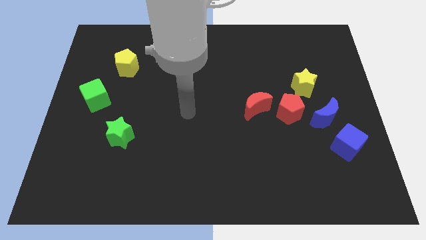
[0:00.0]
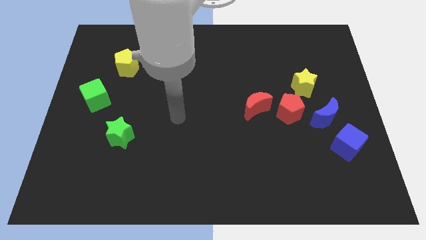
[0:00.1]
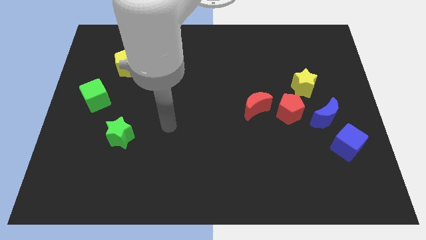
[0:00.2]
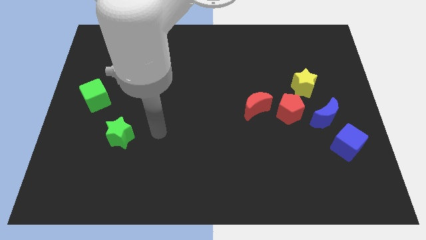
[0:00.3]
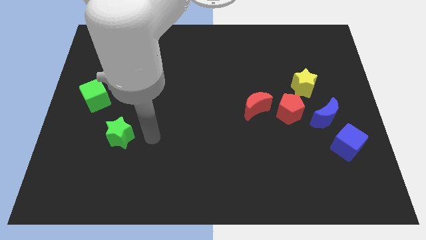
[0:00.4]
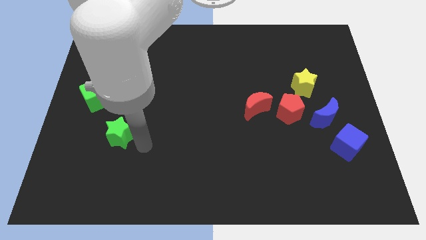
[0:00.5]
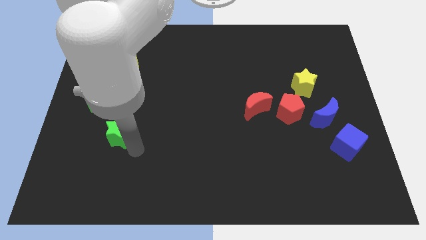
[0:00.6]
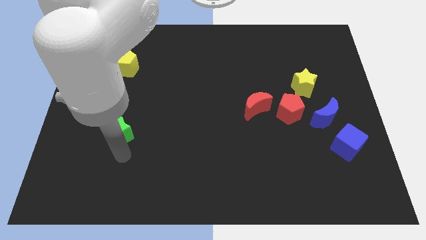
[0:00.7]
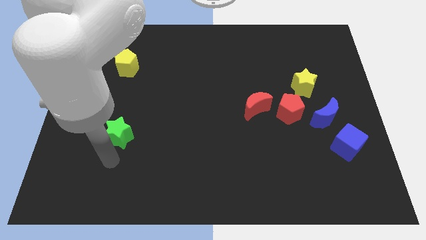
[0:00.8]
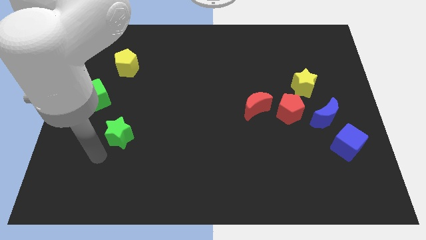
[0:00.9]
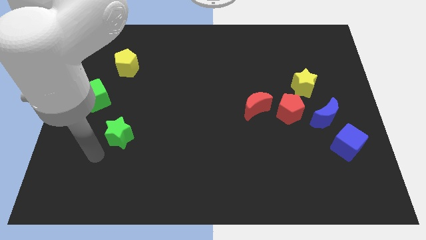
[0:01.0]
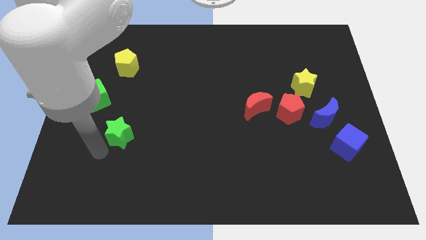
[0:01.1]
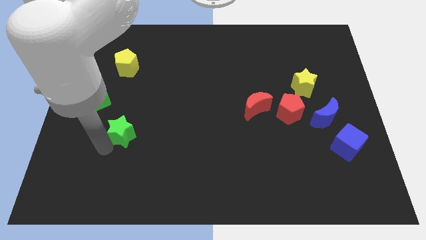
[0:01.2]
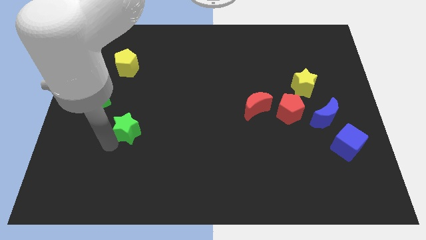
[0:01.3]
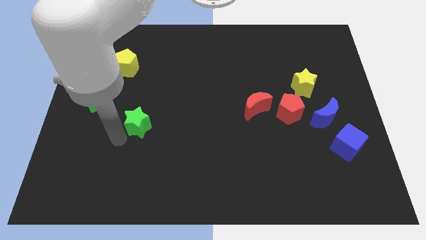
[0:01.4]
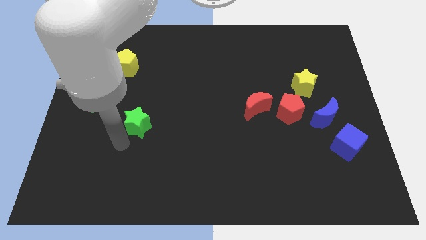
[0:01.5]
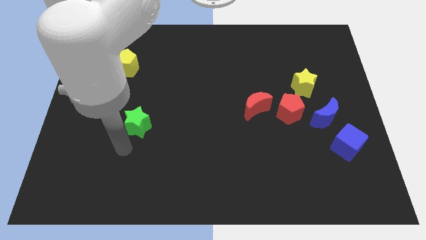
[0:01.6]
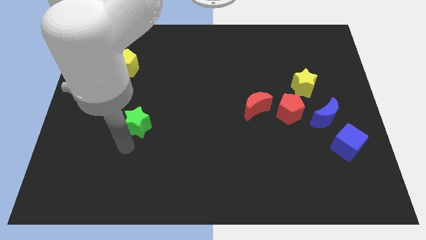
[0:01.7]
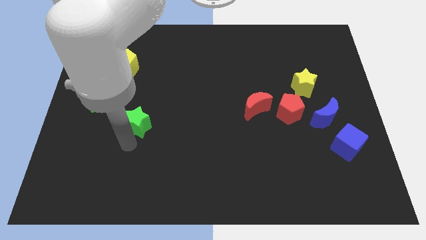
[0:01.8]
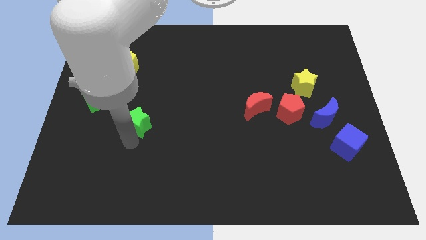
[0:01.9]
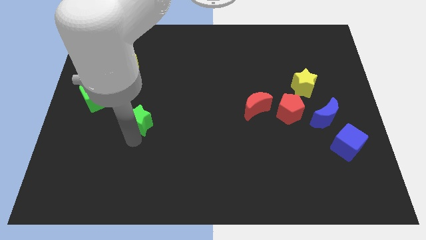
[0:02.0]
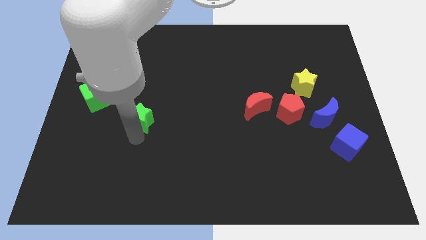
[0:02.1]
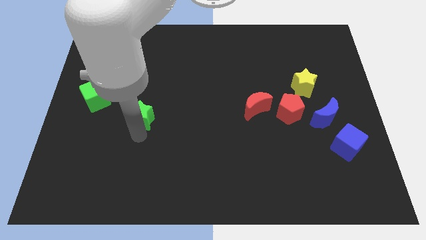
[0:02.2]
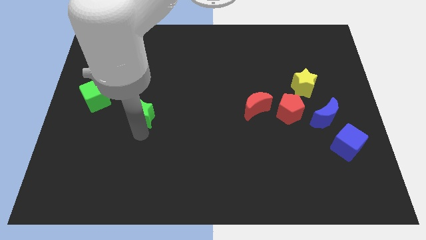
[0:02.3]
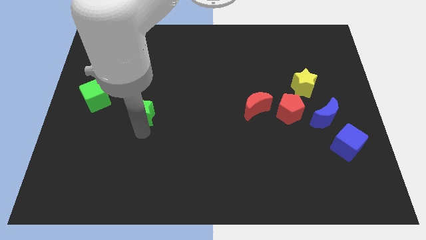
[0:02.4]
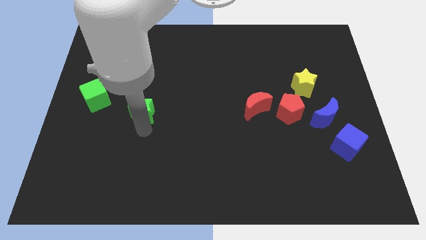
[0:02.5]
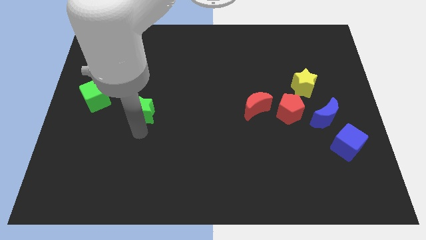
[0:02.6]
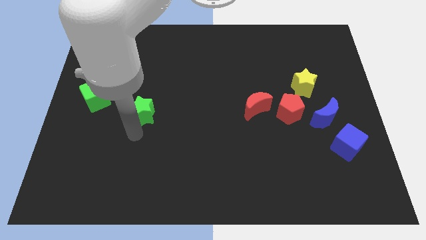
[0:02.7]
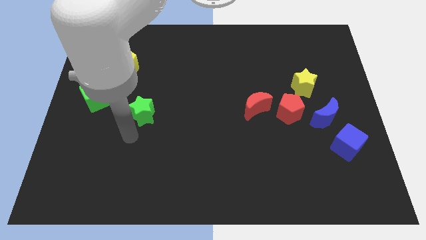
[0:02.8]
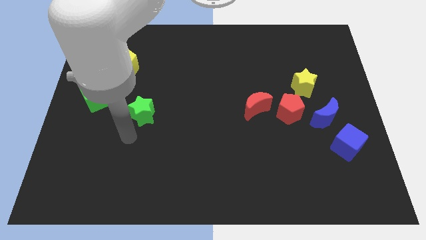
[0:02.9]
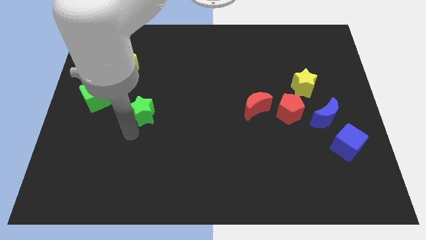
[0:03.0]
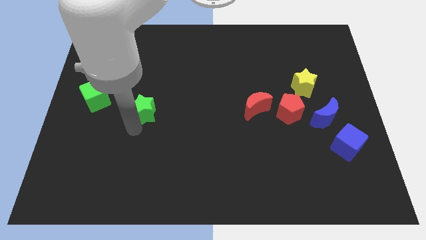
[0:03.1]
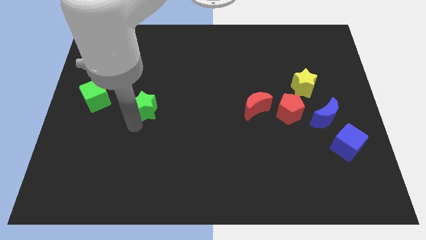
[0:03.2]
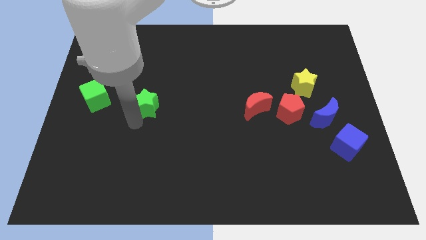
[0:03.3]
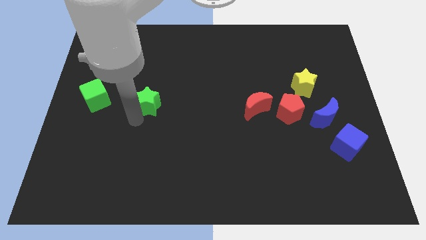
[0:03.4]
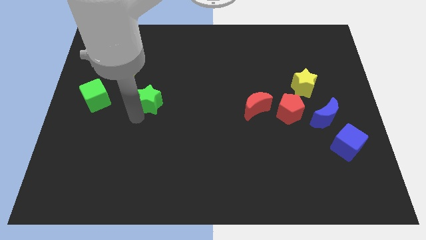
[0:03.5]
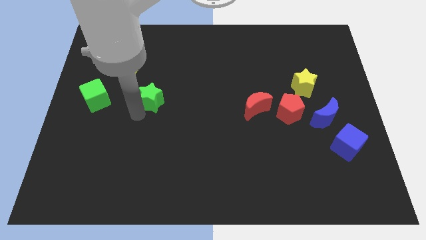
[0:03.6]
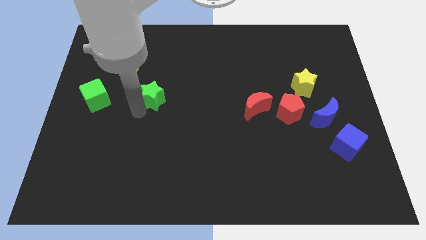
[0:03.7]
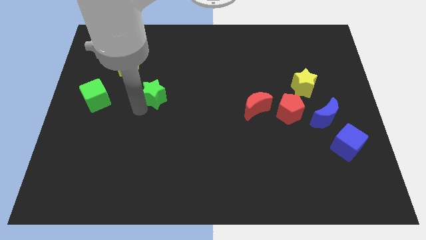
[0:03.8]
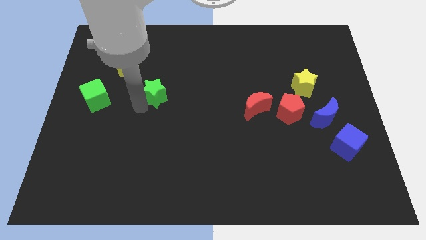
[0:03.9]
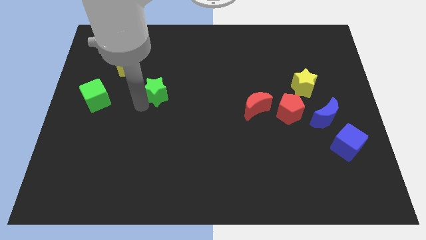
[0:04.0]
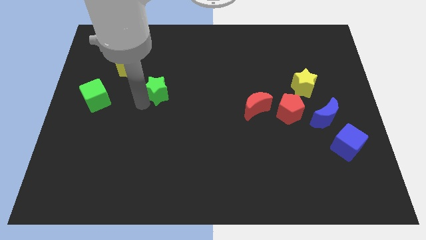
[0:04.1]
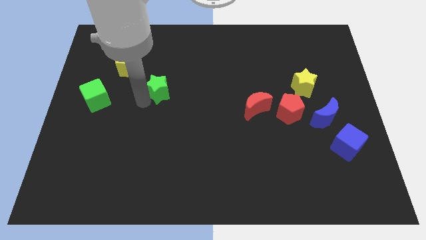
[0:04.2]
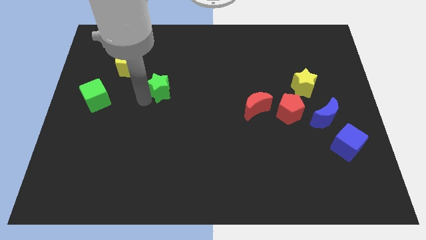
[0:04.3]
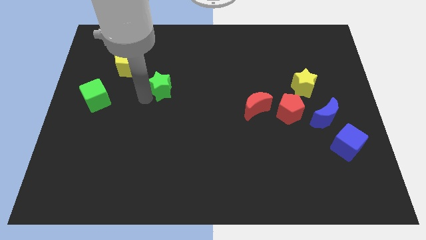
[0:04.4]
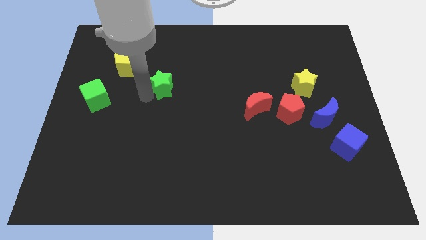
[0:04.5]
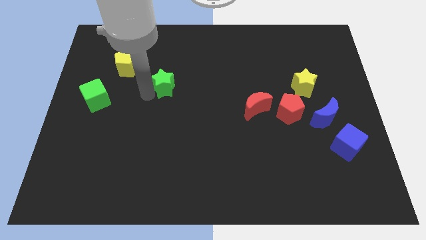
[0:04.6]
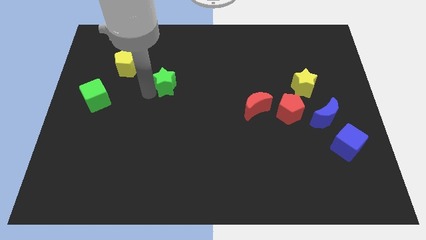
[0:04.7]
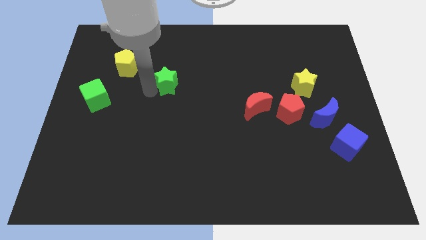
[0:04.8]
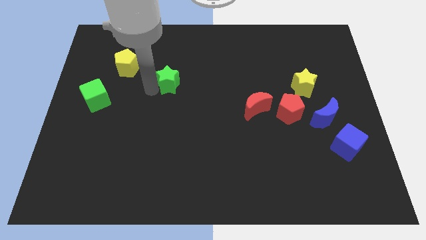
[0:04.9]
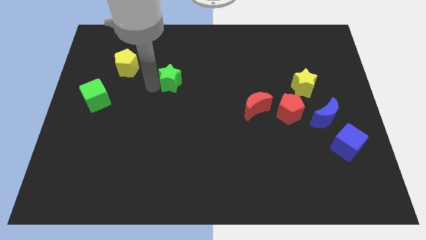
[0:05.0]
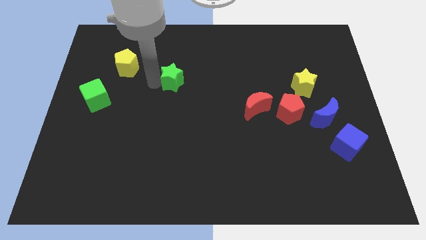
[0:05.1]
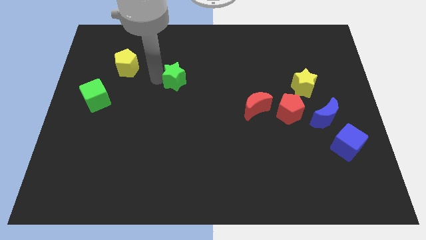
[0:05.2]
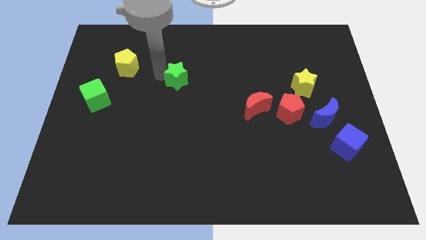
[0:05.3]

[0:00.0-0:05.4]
move the green star up and right

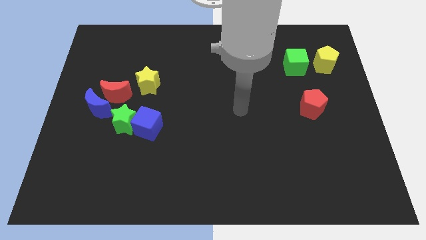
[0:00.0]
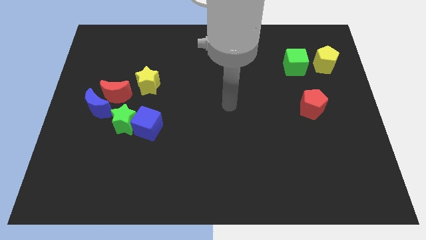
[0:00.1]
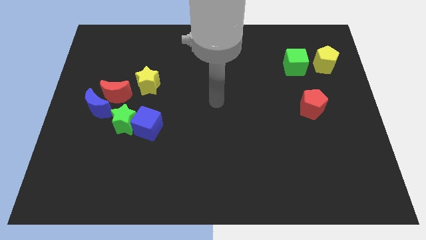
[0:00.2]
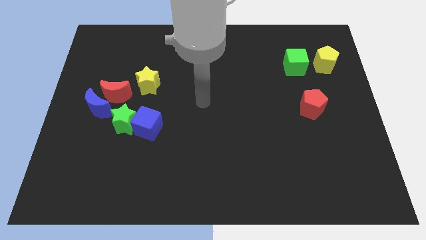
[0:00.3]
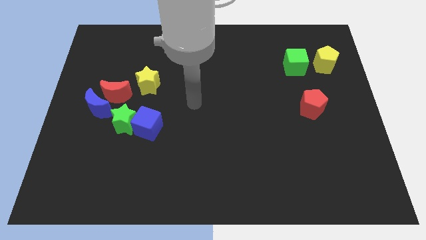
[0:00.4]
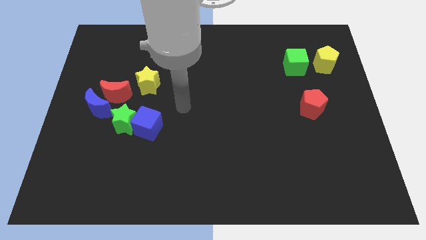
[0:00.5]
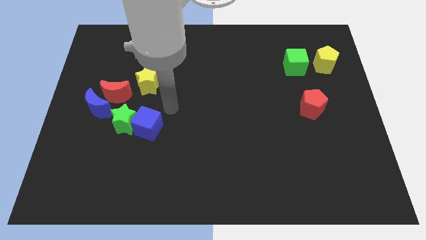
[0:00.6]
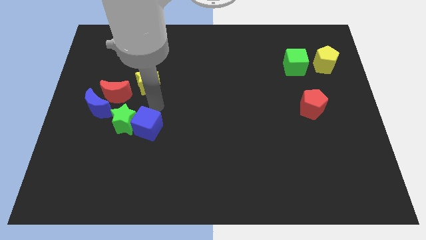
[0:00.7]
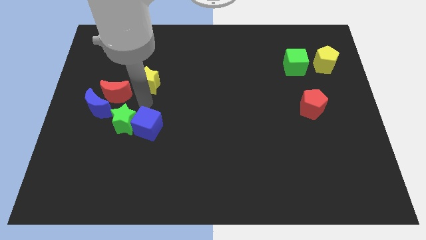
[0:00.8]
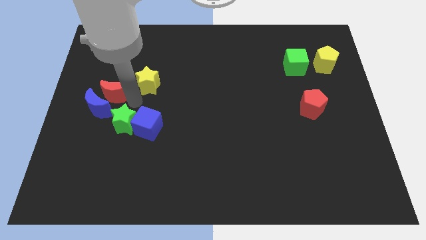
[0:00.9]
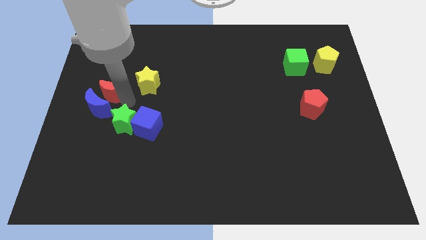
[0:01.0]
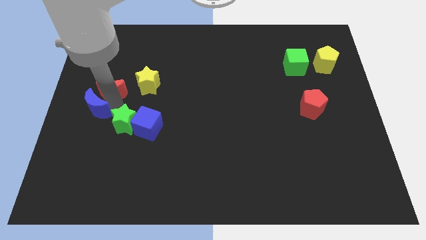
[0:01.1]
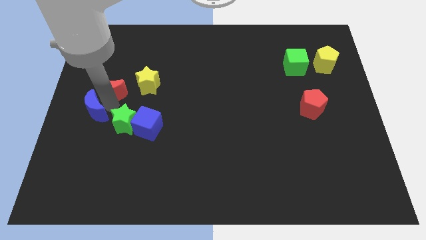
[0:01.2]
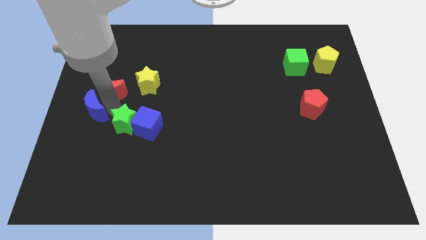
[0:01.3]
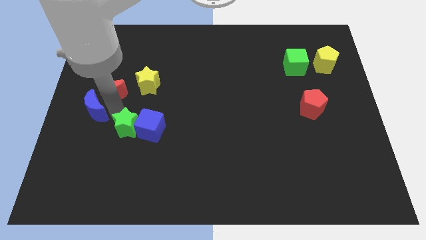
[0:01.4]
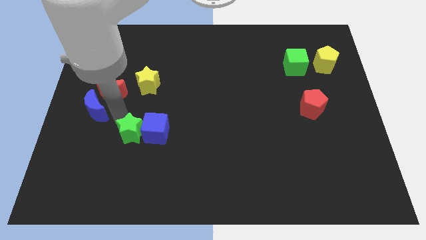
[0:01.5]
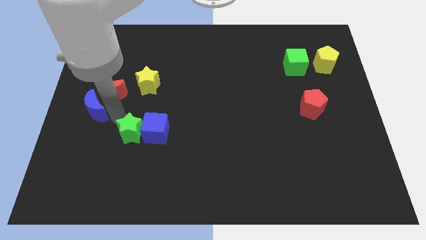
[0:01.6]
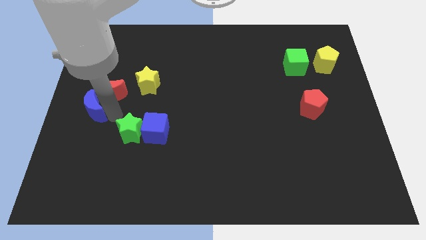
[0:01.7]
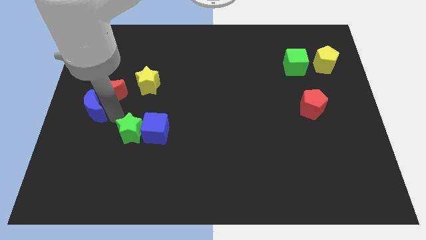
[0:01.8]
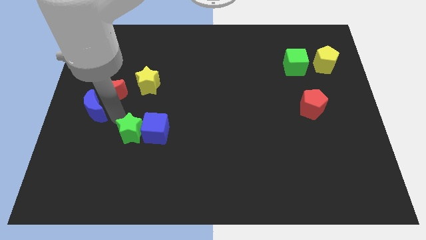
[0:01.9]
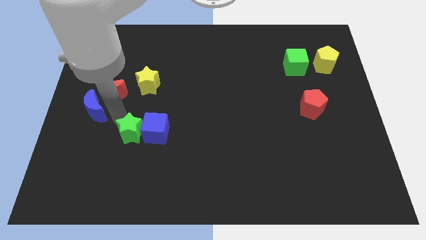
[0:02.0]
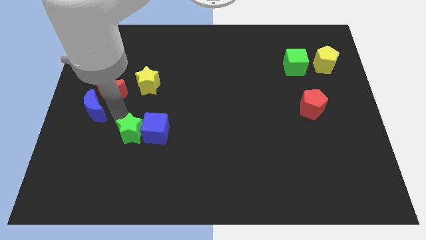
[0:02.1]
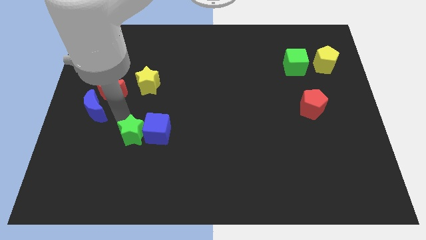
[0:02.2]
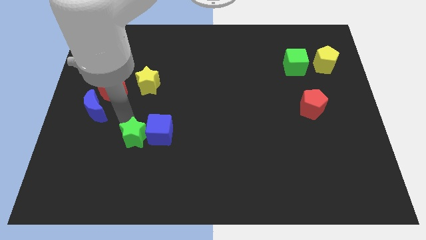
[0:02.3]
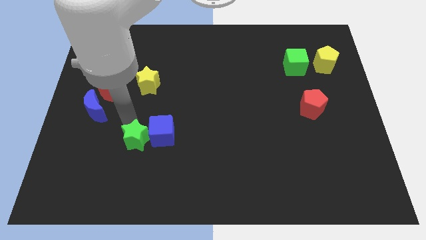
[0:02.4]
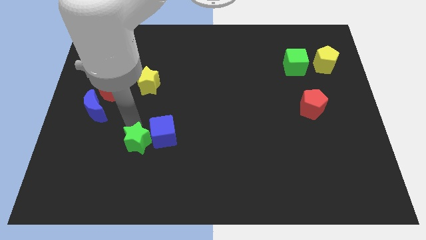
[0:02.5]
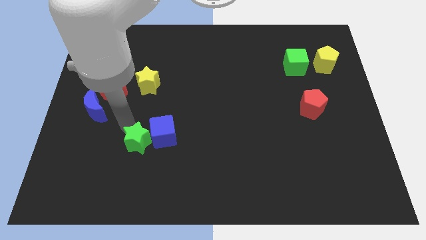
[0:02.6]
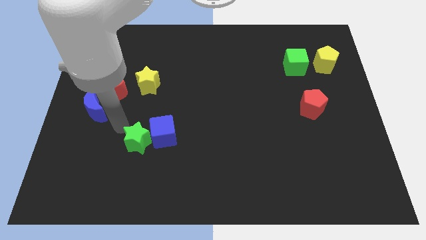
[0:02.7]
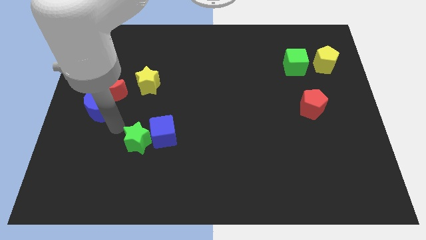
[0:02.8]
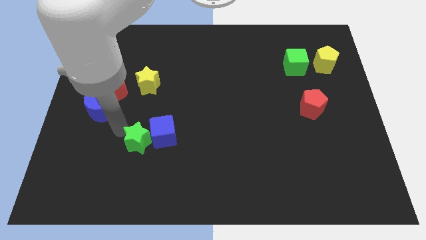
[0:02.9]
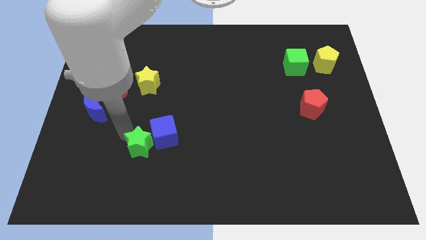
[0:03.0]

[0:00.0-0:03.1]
move the green star downwards and then to the right a bit
